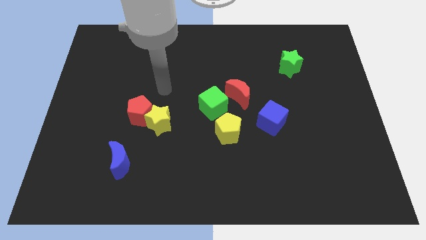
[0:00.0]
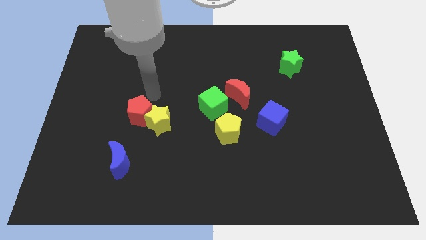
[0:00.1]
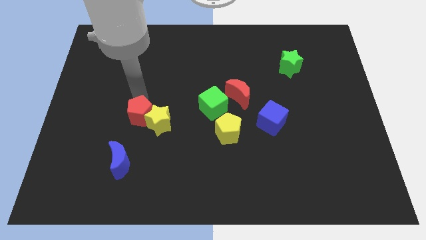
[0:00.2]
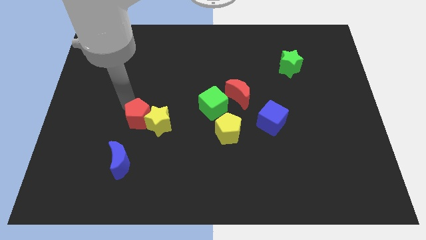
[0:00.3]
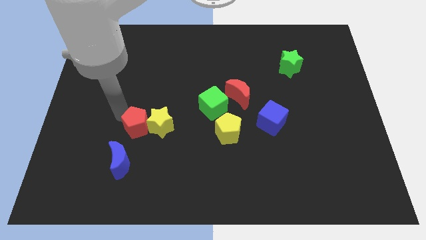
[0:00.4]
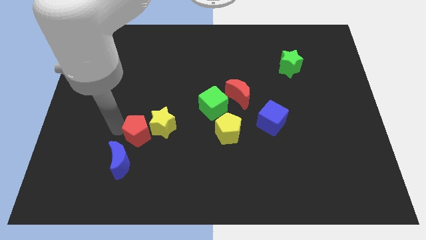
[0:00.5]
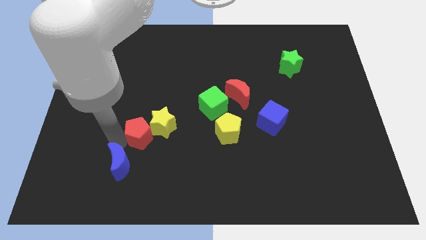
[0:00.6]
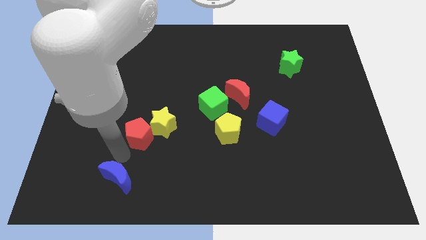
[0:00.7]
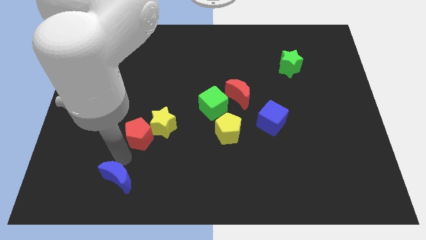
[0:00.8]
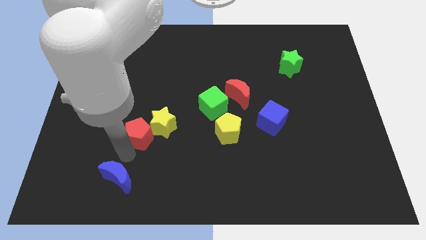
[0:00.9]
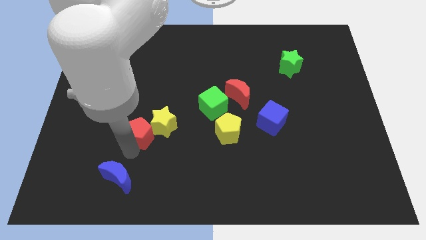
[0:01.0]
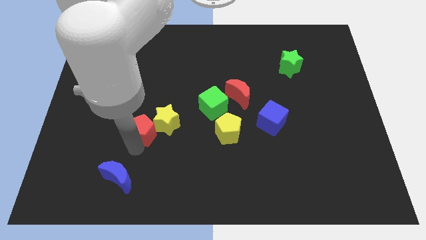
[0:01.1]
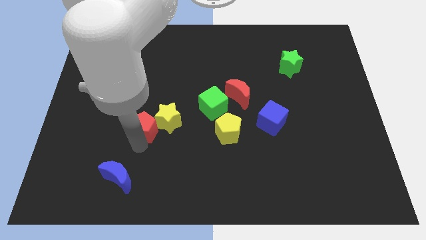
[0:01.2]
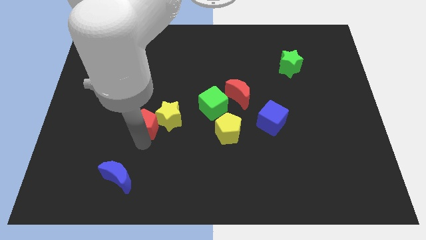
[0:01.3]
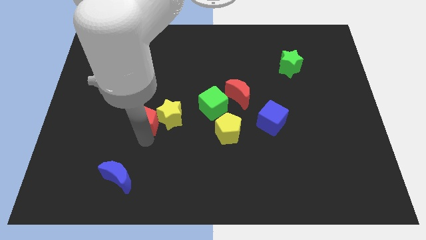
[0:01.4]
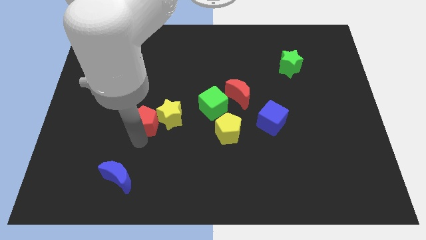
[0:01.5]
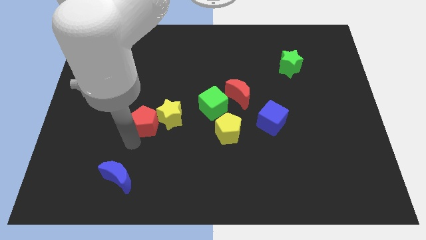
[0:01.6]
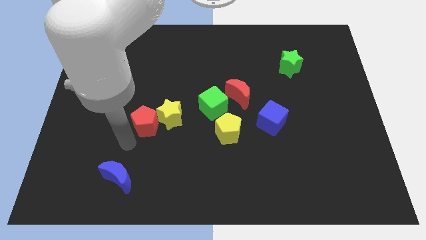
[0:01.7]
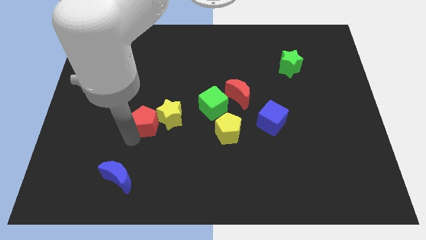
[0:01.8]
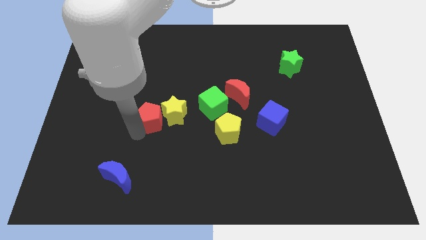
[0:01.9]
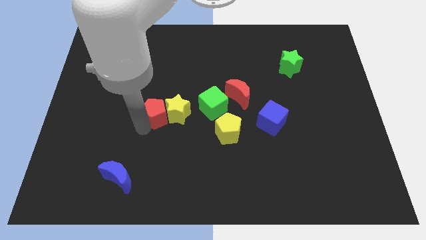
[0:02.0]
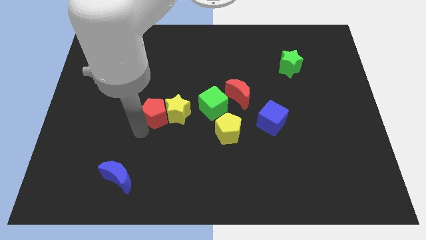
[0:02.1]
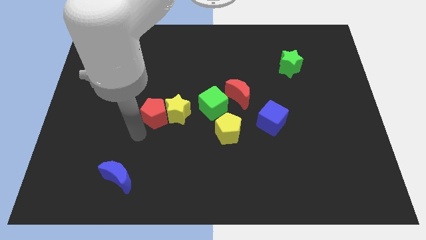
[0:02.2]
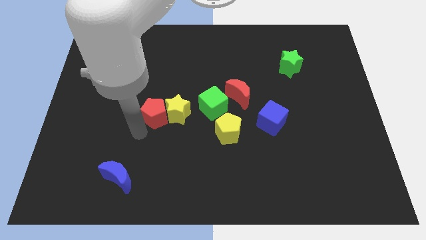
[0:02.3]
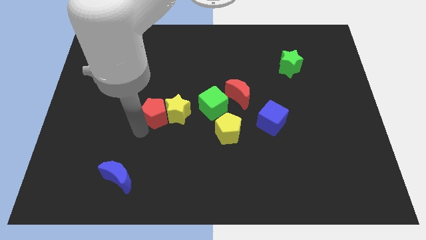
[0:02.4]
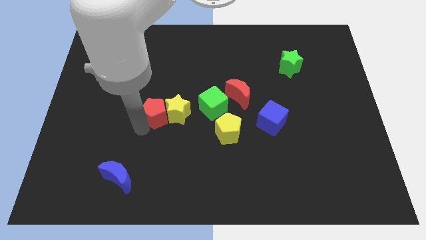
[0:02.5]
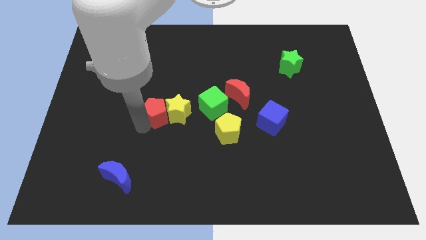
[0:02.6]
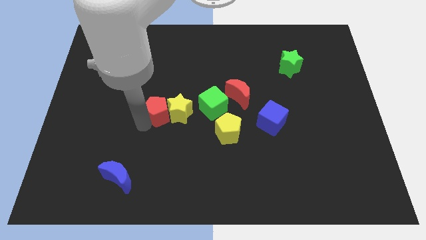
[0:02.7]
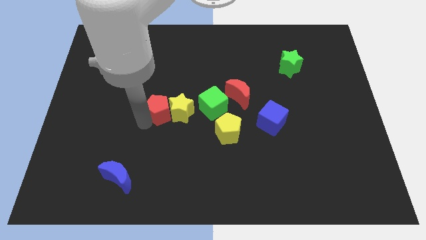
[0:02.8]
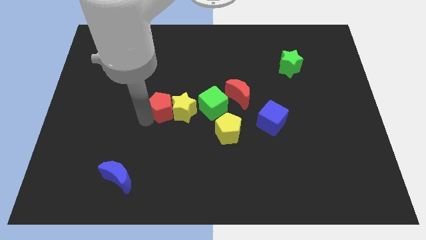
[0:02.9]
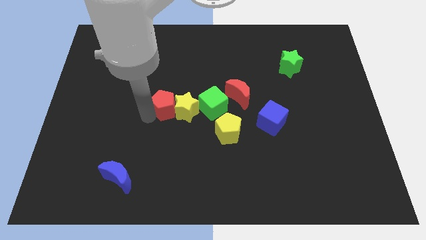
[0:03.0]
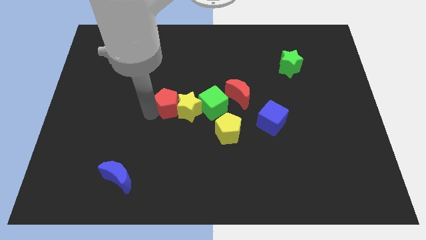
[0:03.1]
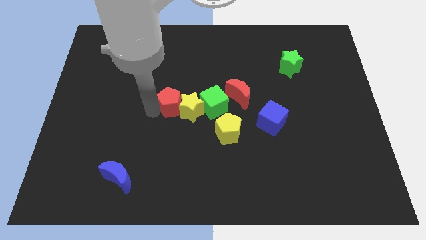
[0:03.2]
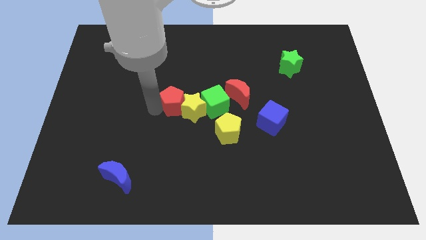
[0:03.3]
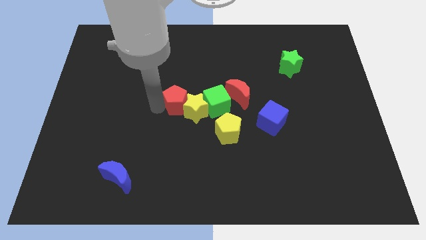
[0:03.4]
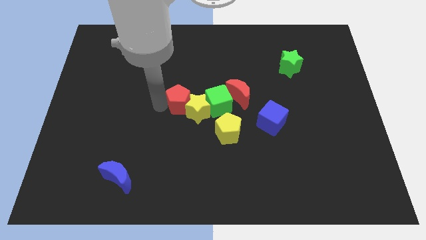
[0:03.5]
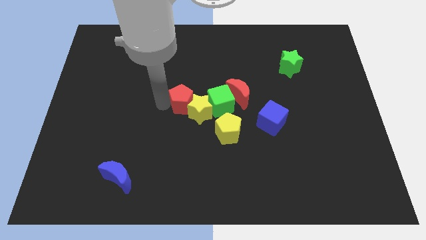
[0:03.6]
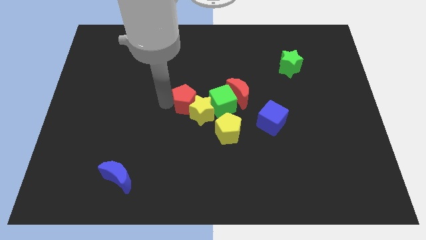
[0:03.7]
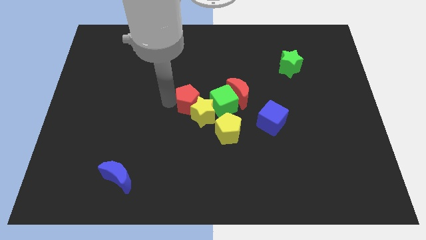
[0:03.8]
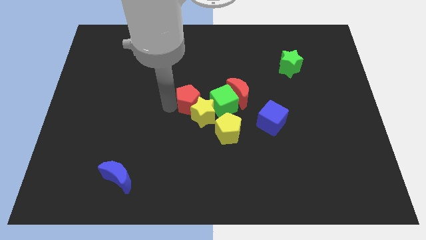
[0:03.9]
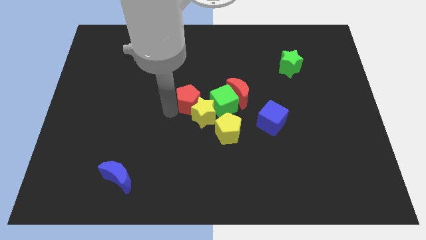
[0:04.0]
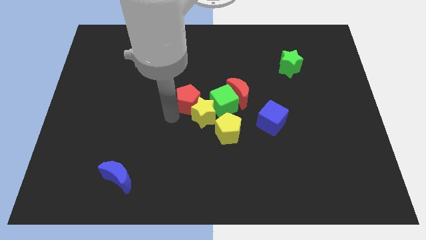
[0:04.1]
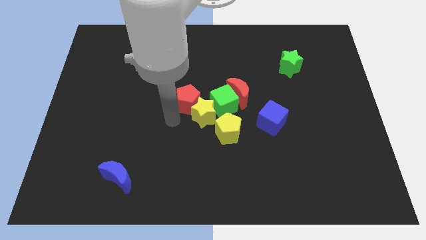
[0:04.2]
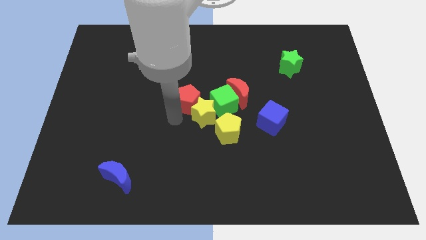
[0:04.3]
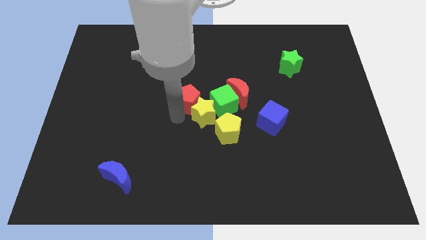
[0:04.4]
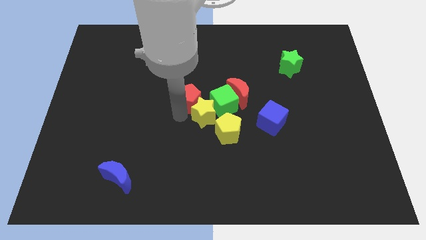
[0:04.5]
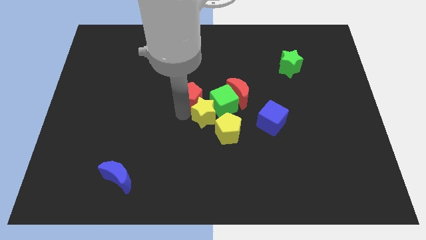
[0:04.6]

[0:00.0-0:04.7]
slide the red pentagon diagonally up and to the left of the green cube

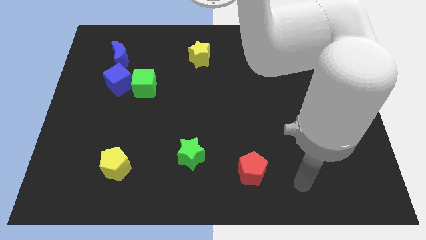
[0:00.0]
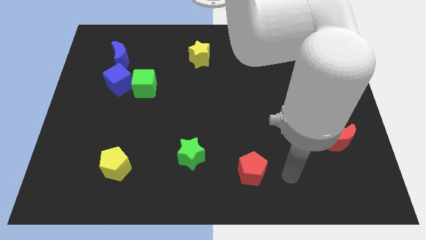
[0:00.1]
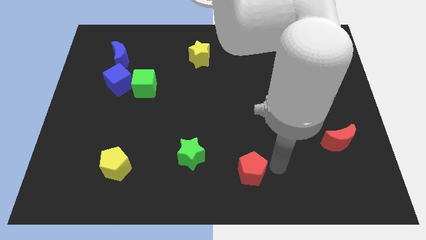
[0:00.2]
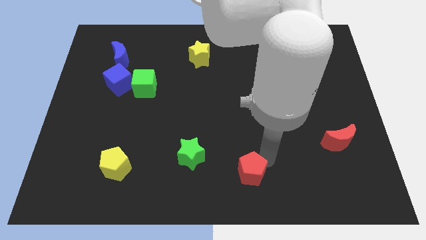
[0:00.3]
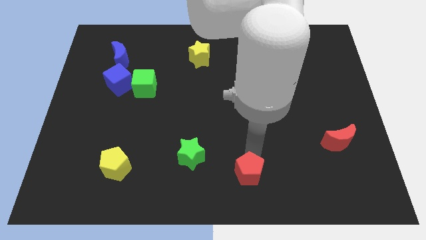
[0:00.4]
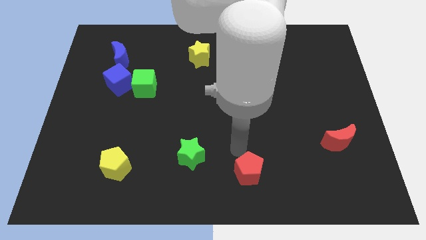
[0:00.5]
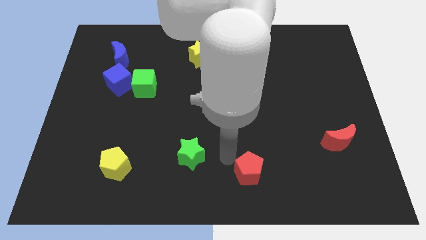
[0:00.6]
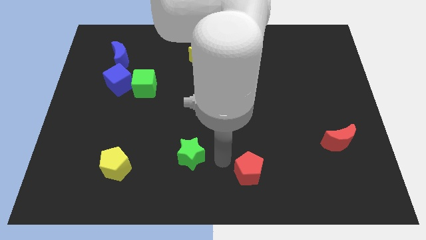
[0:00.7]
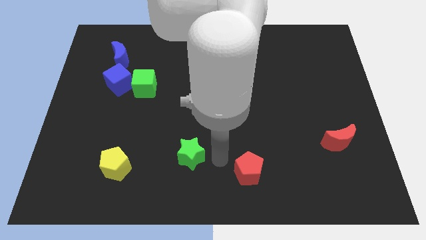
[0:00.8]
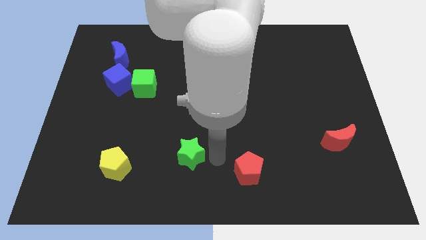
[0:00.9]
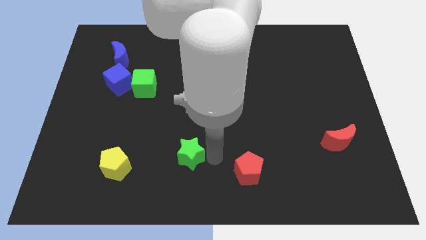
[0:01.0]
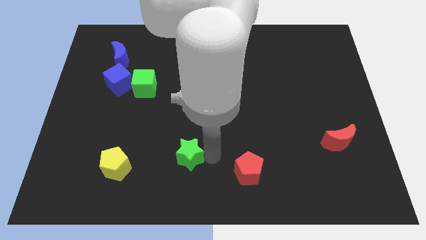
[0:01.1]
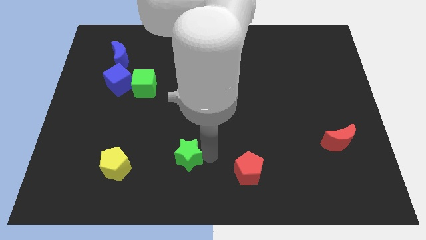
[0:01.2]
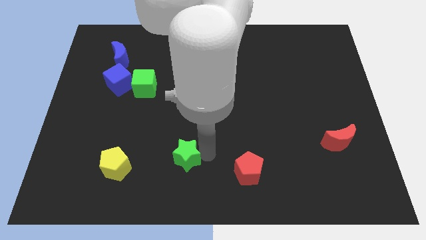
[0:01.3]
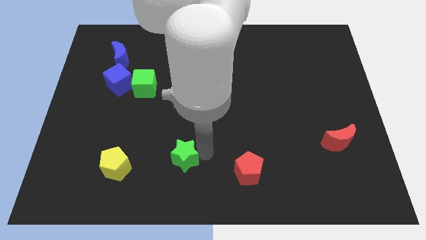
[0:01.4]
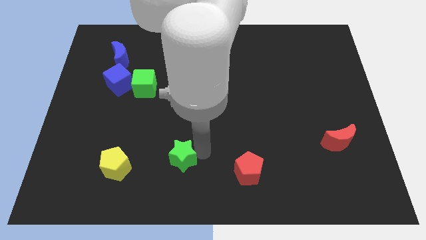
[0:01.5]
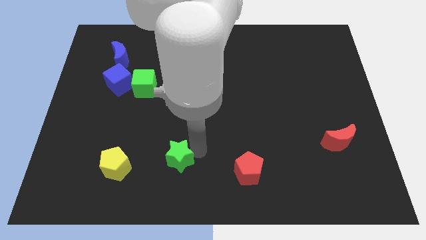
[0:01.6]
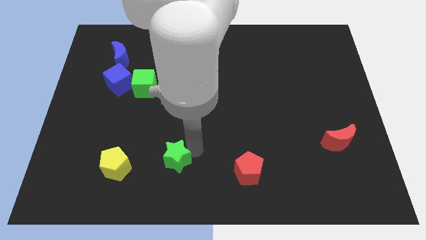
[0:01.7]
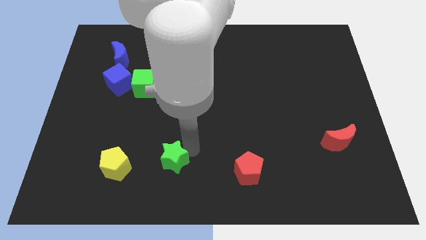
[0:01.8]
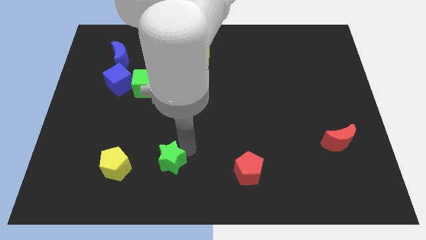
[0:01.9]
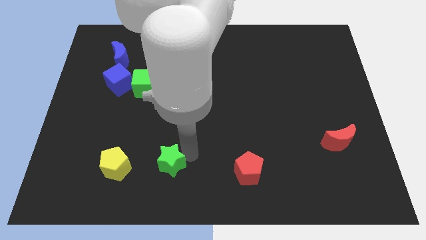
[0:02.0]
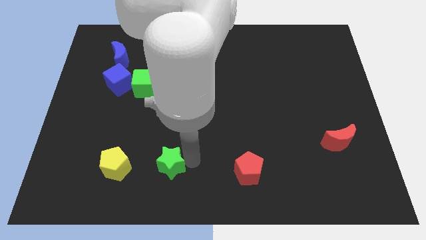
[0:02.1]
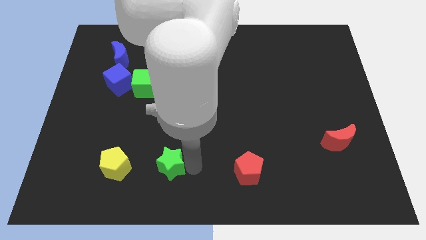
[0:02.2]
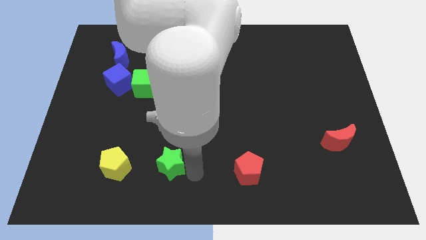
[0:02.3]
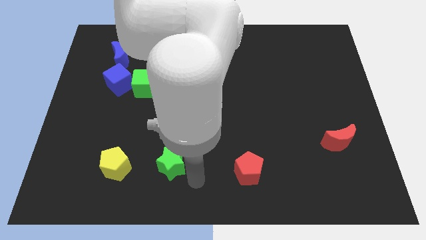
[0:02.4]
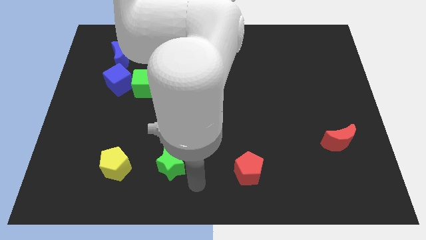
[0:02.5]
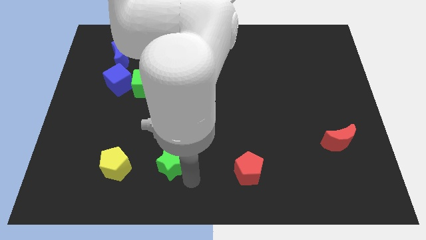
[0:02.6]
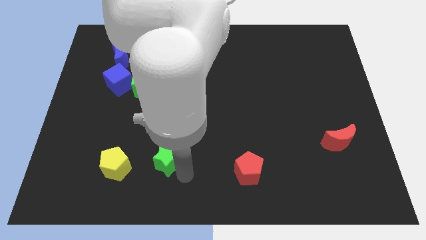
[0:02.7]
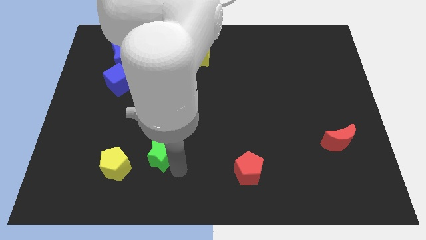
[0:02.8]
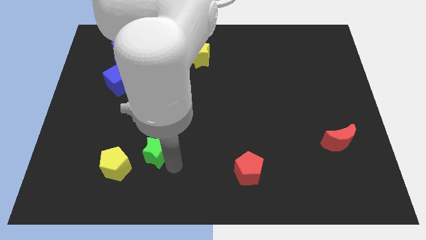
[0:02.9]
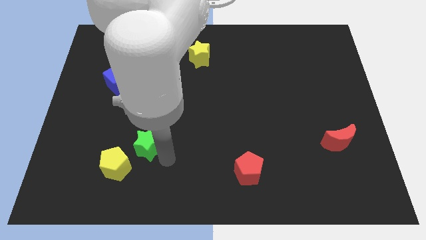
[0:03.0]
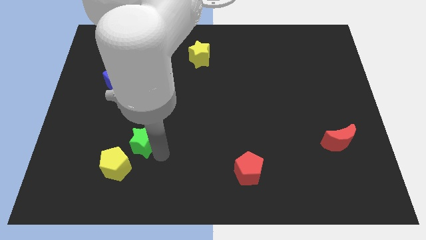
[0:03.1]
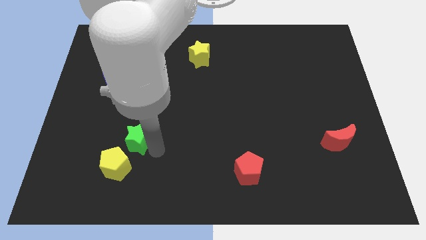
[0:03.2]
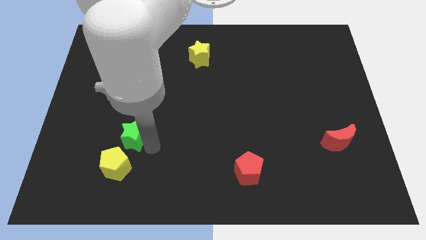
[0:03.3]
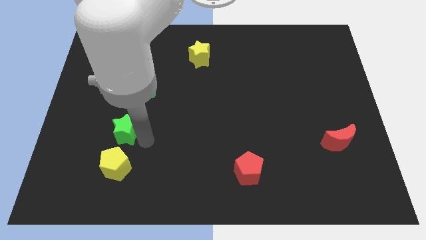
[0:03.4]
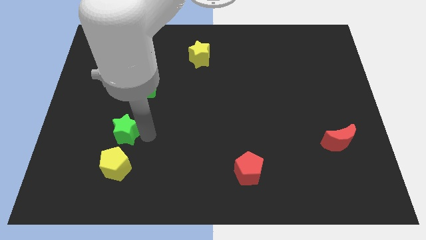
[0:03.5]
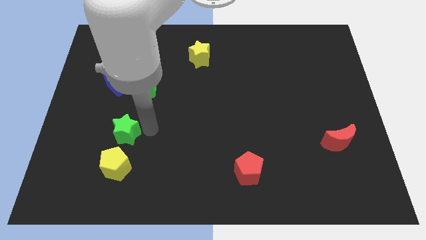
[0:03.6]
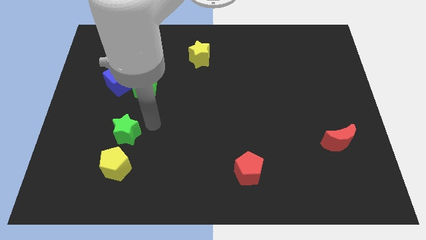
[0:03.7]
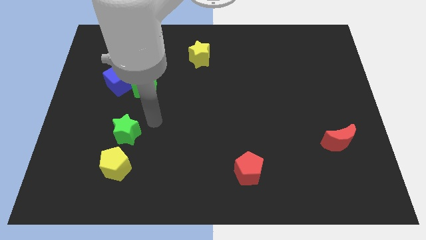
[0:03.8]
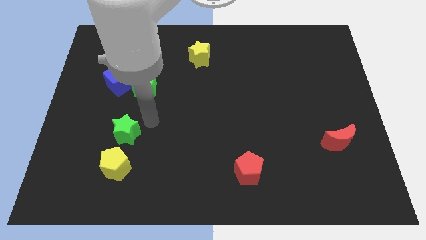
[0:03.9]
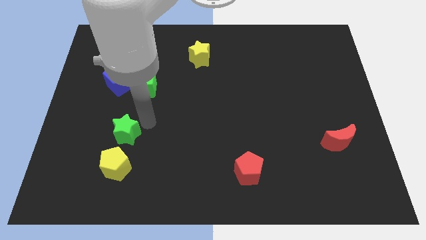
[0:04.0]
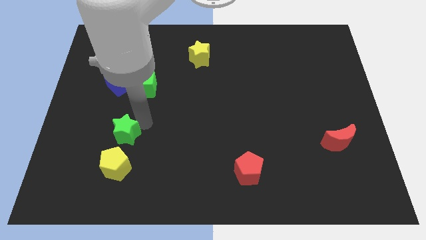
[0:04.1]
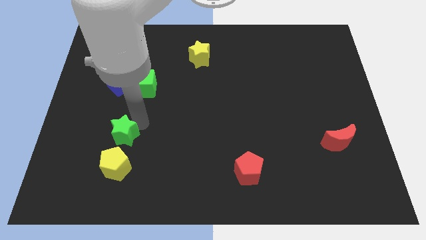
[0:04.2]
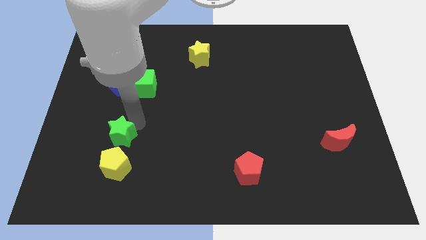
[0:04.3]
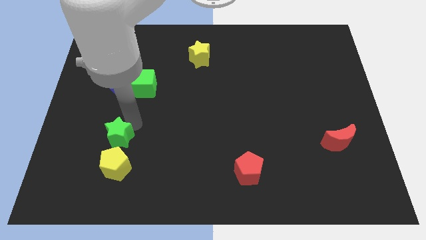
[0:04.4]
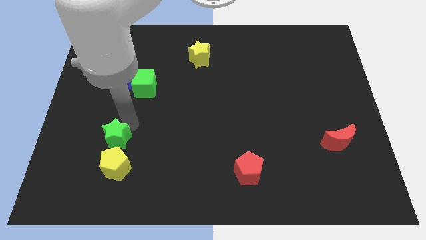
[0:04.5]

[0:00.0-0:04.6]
put the green star to the top left of the yellow pentagon
